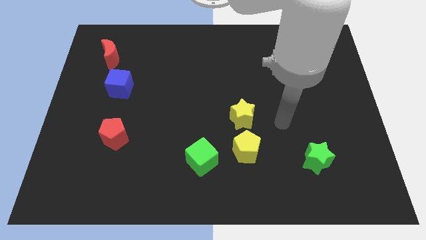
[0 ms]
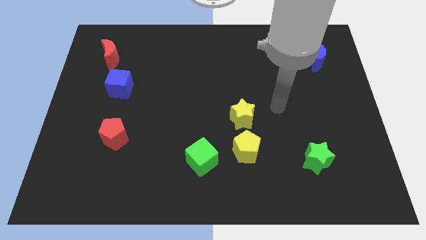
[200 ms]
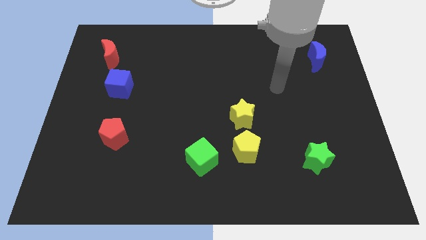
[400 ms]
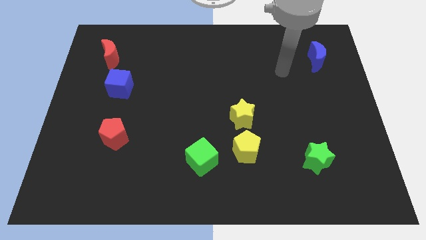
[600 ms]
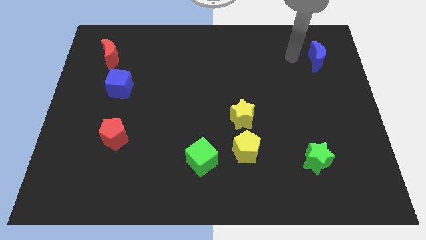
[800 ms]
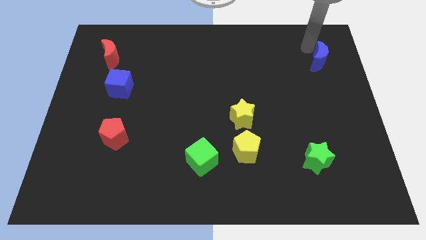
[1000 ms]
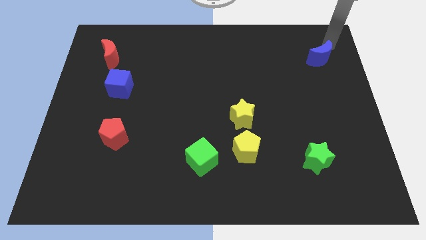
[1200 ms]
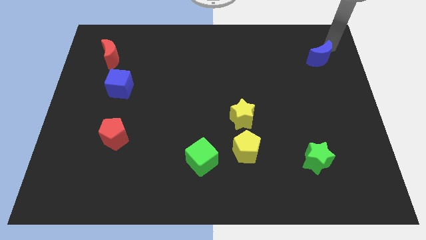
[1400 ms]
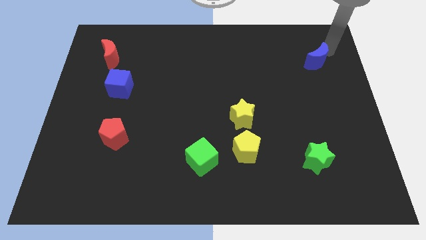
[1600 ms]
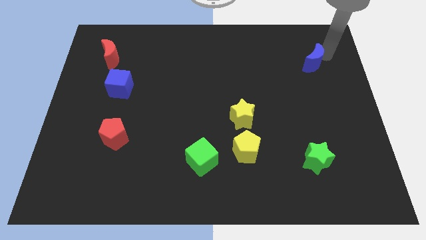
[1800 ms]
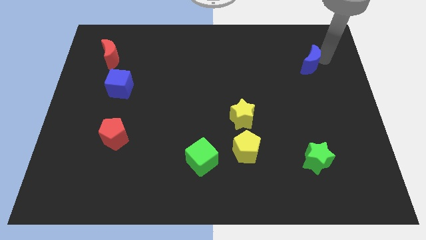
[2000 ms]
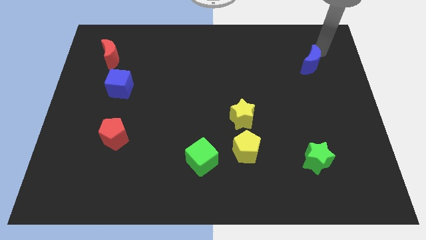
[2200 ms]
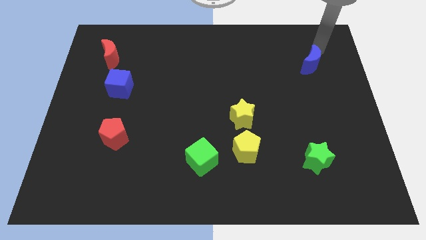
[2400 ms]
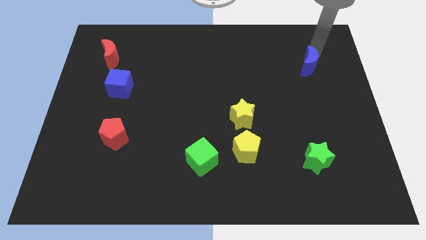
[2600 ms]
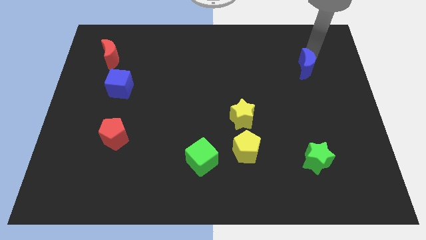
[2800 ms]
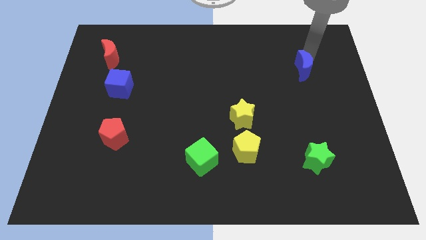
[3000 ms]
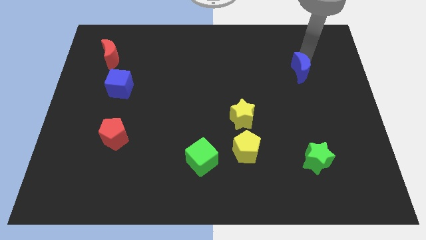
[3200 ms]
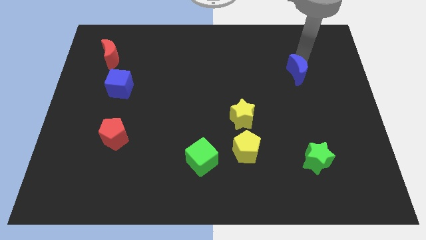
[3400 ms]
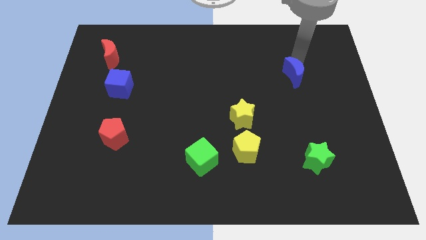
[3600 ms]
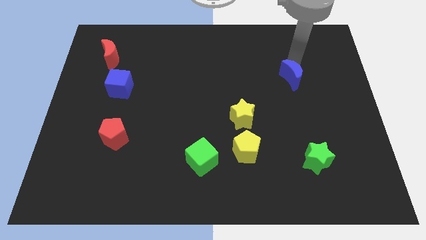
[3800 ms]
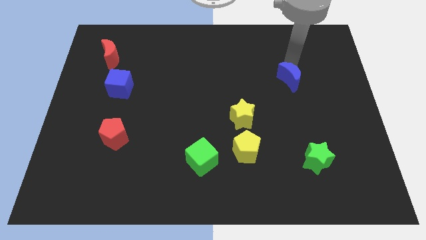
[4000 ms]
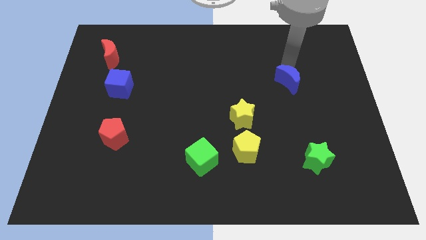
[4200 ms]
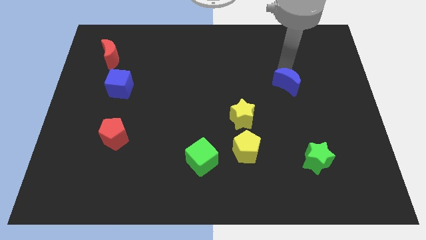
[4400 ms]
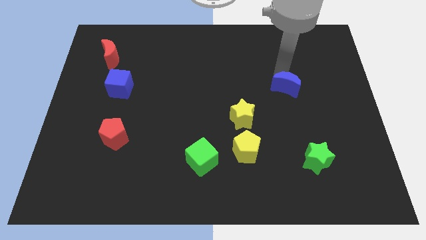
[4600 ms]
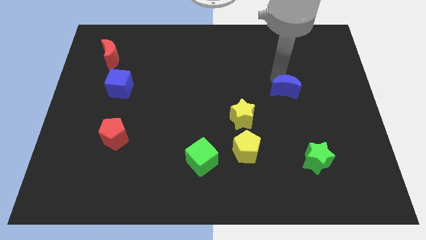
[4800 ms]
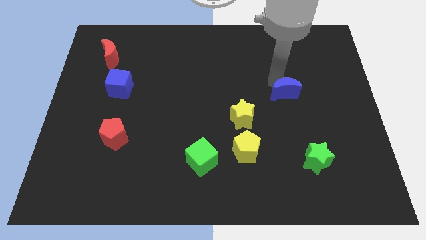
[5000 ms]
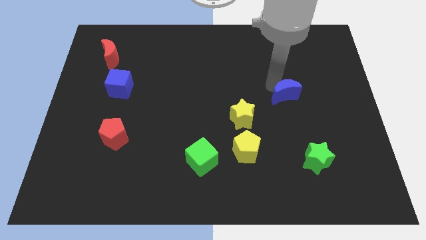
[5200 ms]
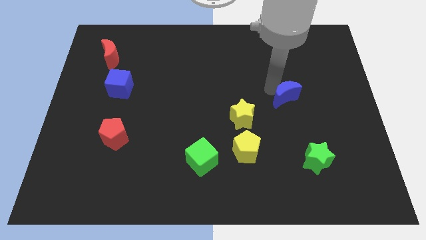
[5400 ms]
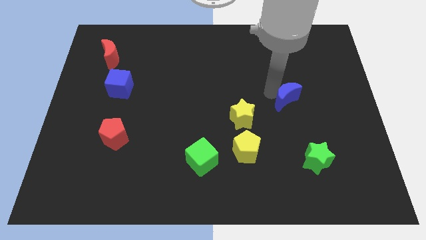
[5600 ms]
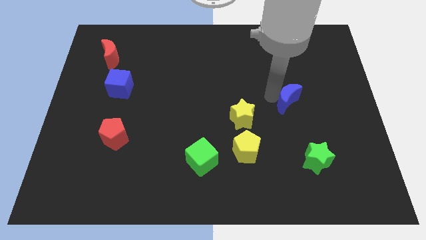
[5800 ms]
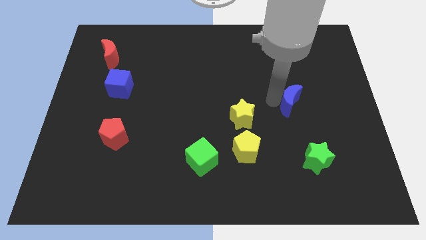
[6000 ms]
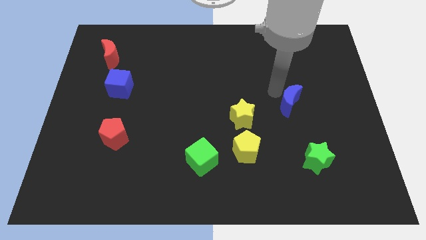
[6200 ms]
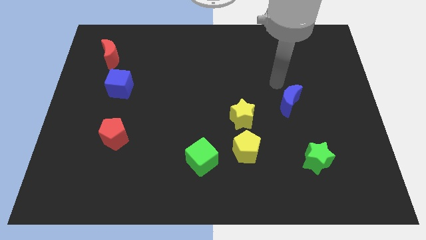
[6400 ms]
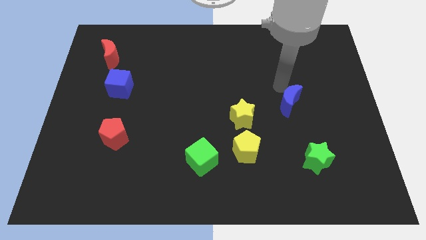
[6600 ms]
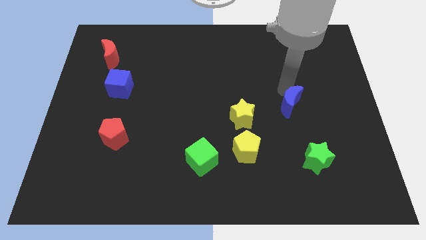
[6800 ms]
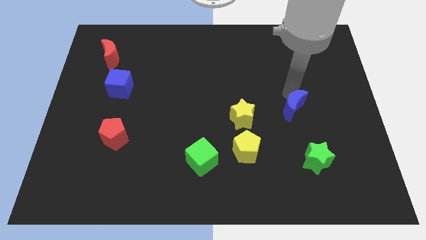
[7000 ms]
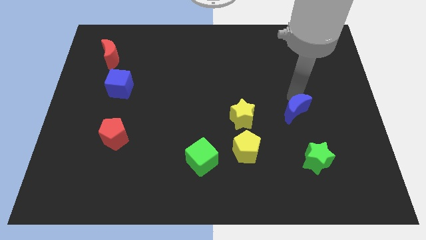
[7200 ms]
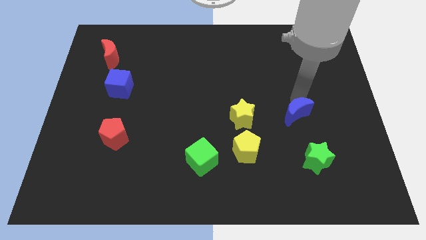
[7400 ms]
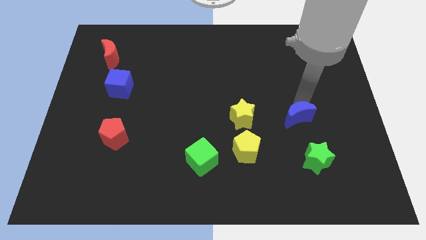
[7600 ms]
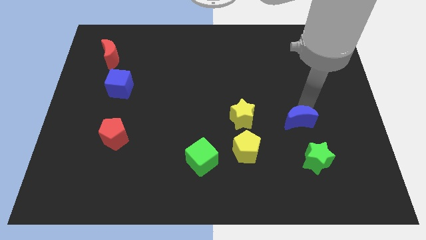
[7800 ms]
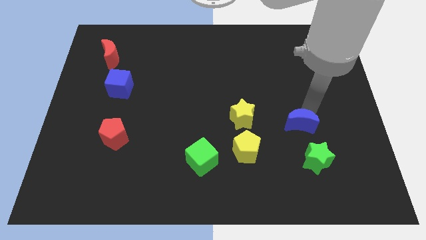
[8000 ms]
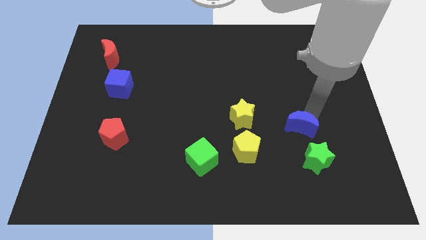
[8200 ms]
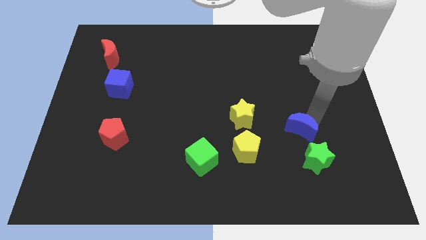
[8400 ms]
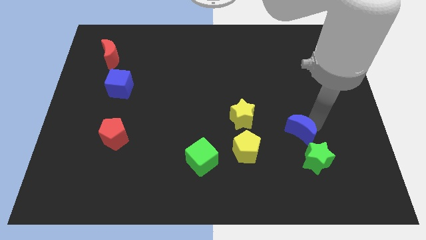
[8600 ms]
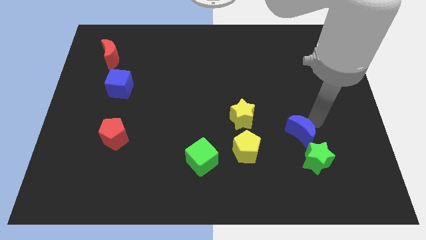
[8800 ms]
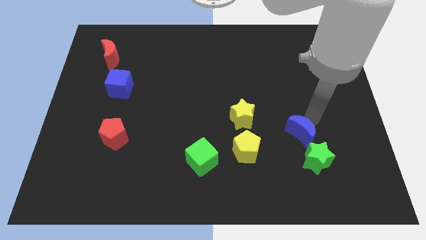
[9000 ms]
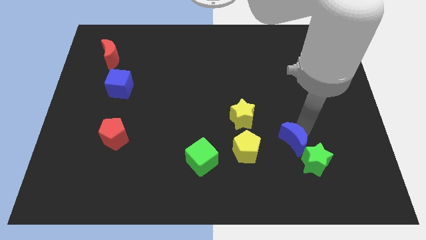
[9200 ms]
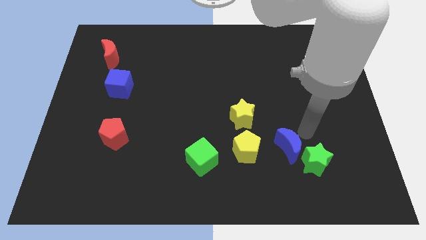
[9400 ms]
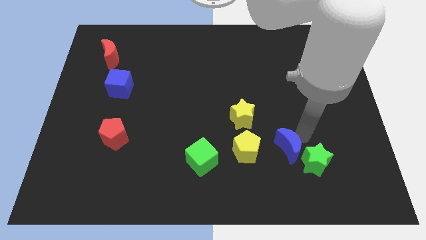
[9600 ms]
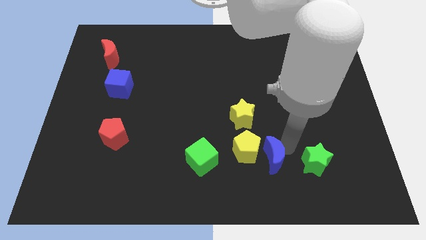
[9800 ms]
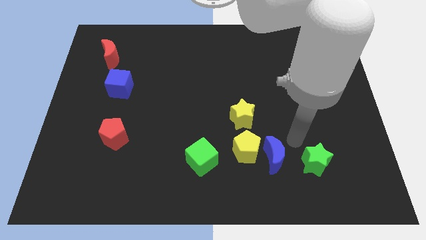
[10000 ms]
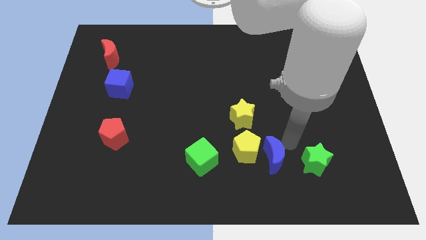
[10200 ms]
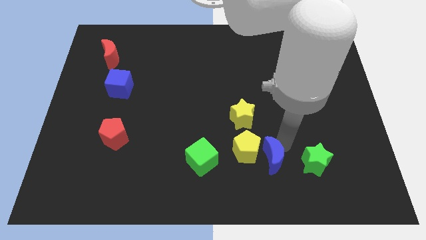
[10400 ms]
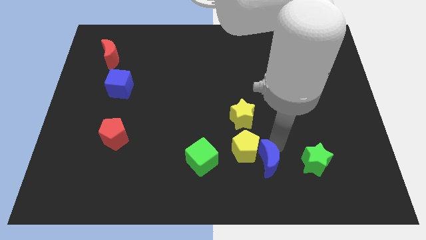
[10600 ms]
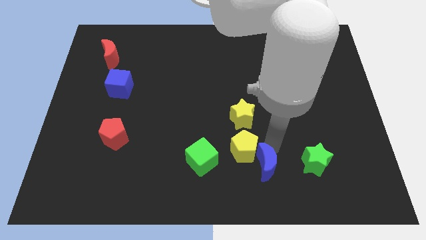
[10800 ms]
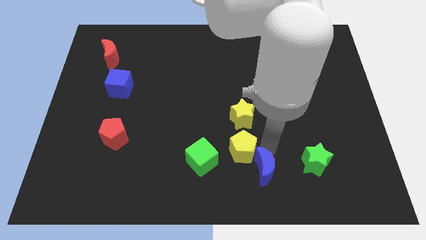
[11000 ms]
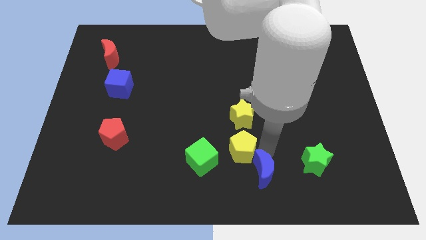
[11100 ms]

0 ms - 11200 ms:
put the blue moon to the bottom side
